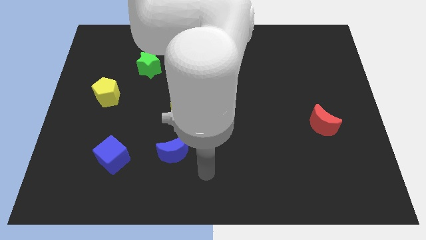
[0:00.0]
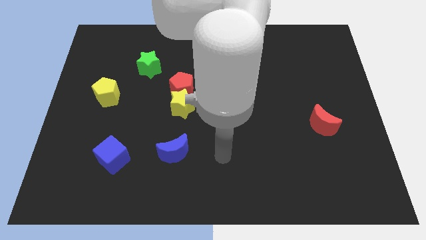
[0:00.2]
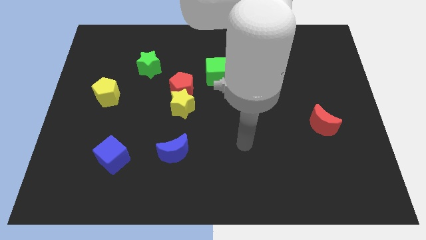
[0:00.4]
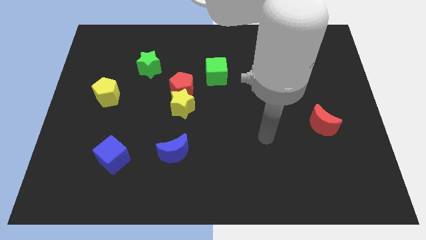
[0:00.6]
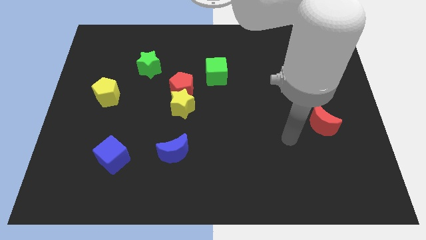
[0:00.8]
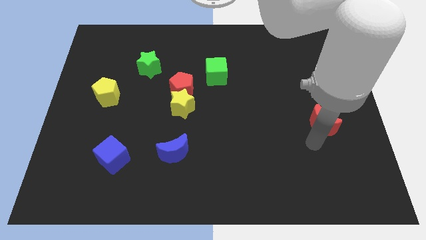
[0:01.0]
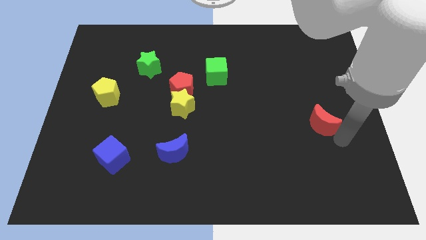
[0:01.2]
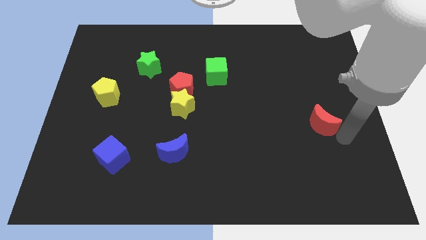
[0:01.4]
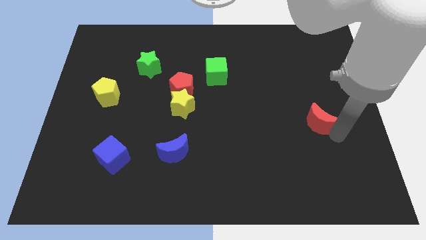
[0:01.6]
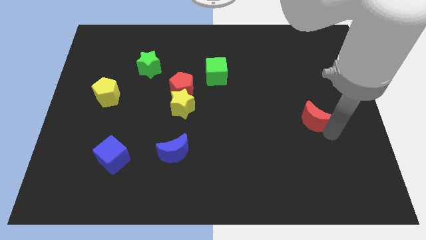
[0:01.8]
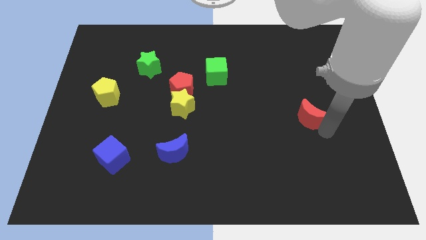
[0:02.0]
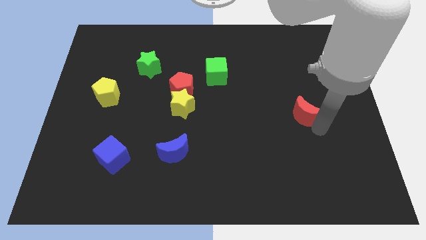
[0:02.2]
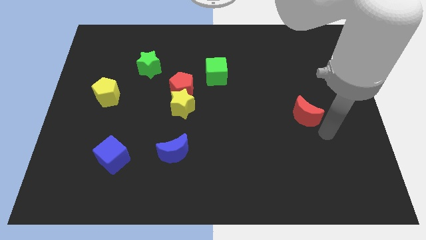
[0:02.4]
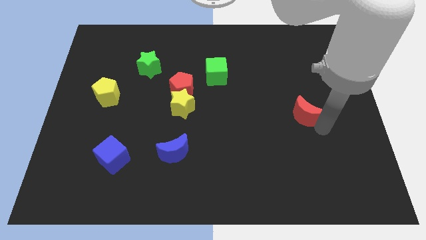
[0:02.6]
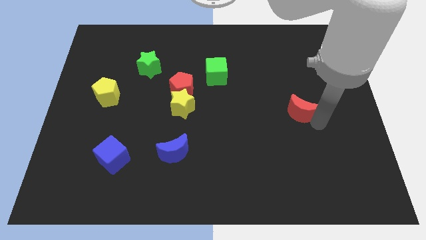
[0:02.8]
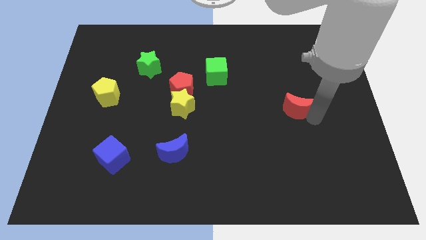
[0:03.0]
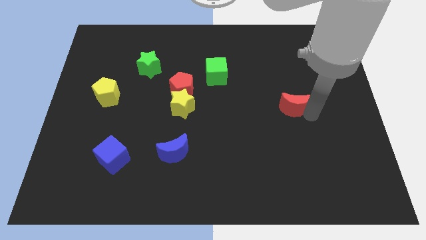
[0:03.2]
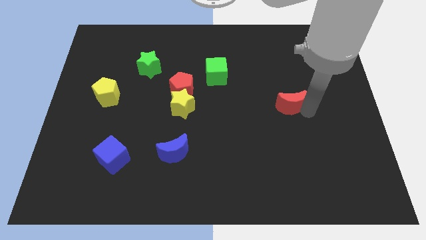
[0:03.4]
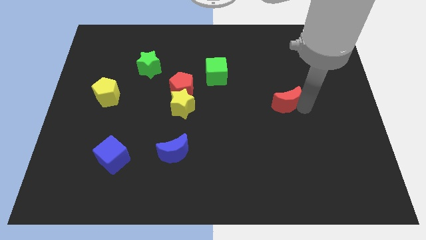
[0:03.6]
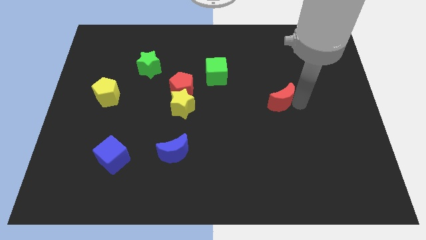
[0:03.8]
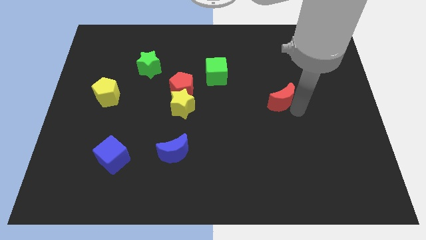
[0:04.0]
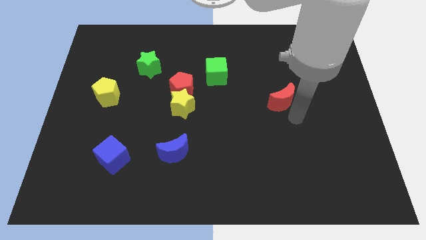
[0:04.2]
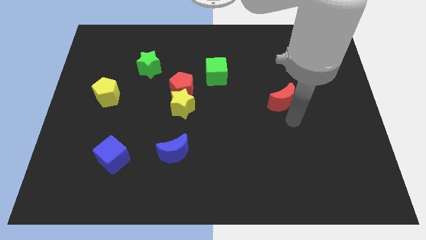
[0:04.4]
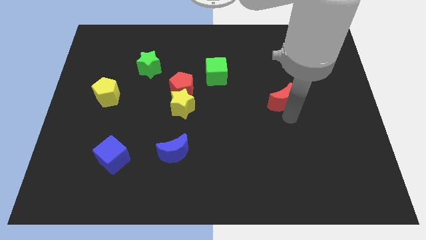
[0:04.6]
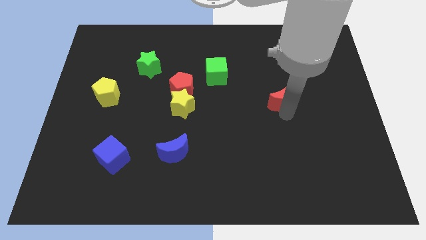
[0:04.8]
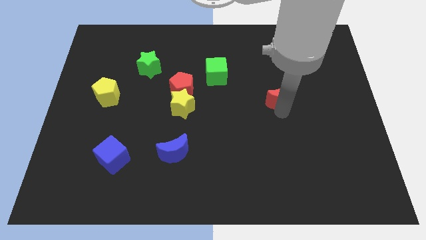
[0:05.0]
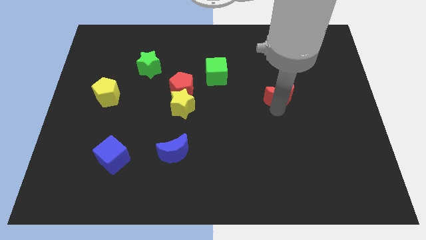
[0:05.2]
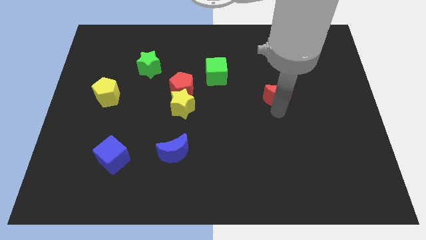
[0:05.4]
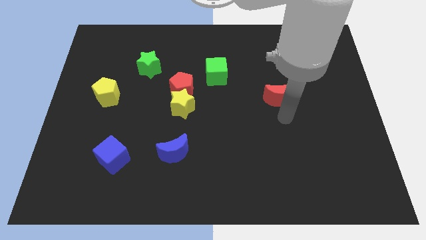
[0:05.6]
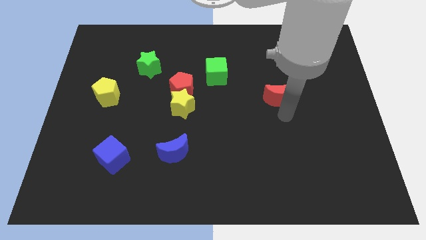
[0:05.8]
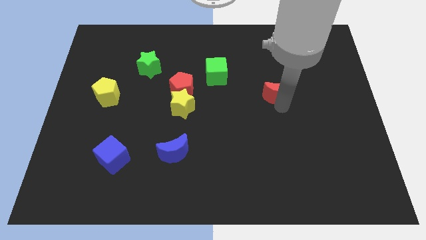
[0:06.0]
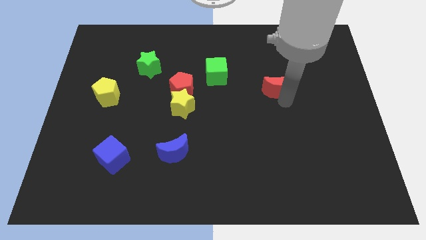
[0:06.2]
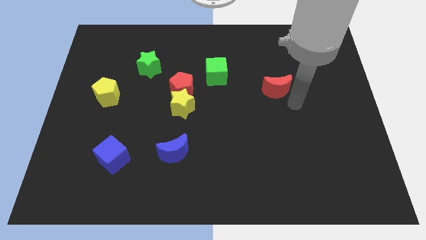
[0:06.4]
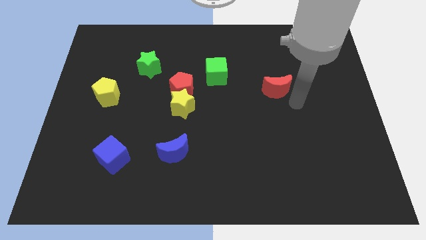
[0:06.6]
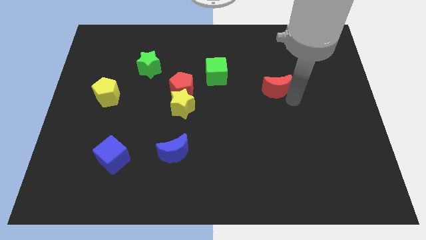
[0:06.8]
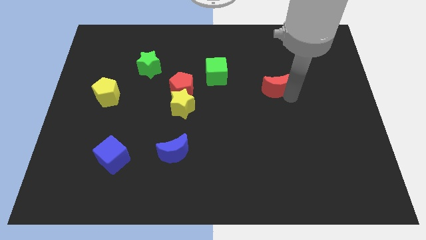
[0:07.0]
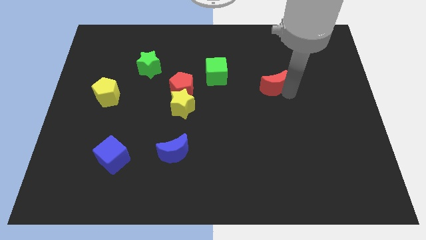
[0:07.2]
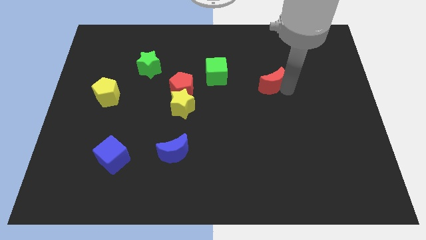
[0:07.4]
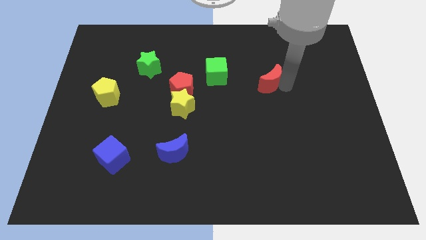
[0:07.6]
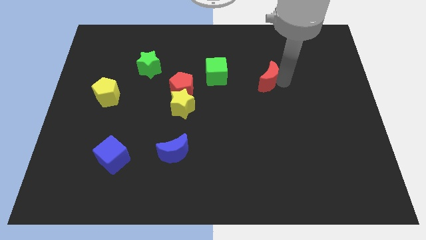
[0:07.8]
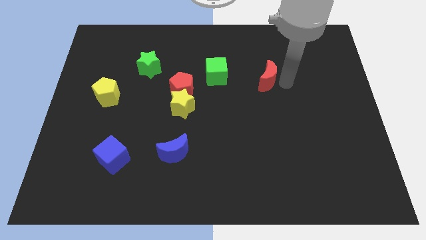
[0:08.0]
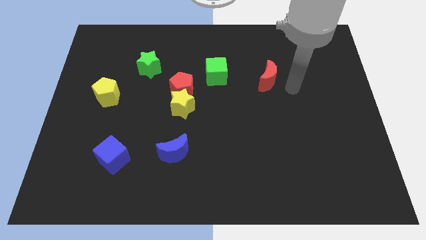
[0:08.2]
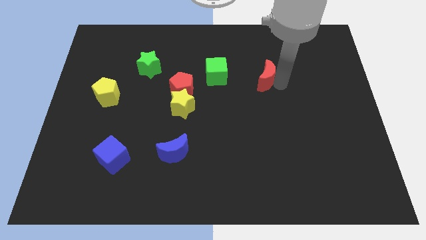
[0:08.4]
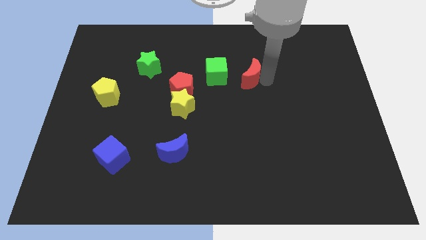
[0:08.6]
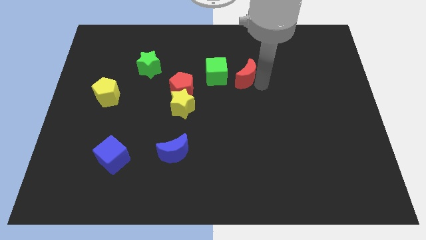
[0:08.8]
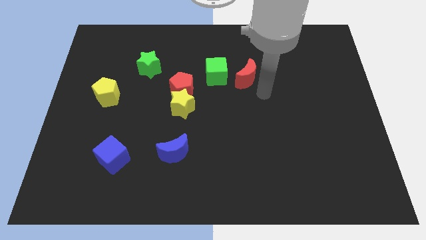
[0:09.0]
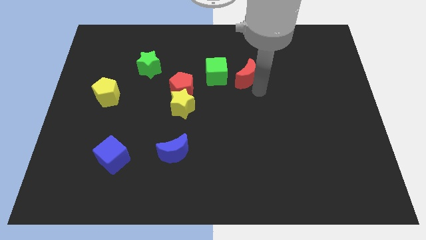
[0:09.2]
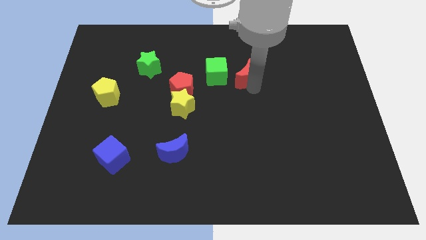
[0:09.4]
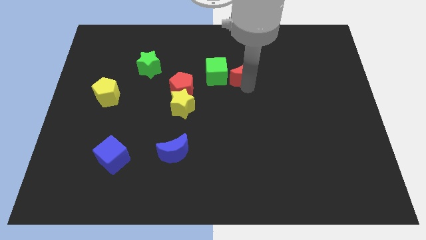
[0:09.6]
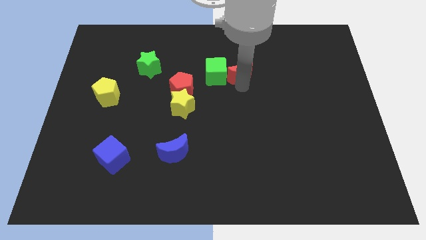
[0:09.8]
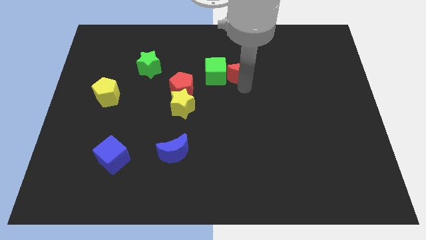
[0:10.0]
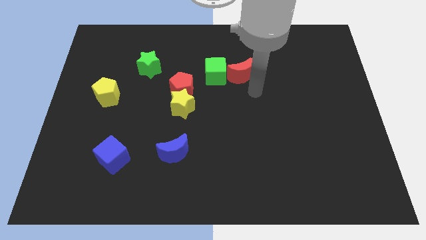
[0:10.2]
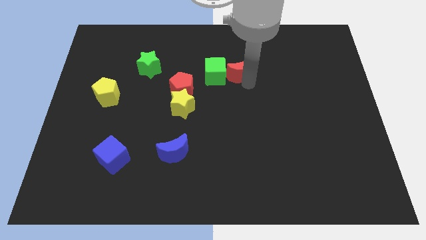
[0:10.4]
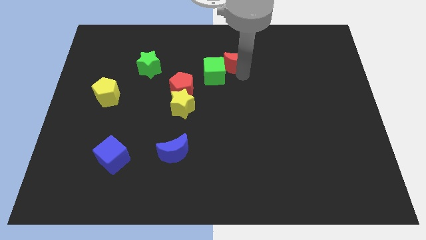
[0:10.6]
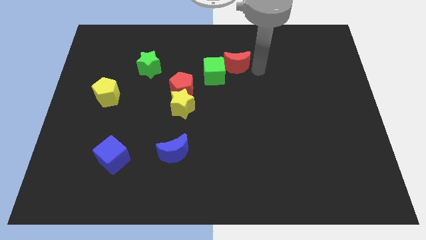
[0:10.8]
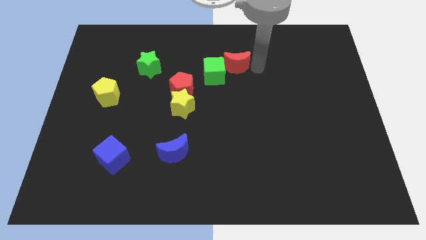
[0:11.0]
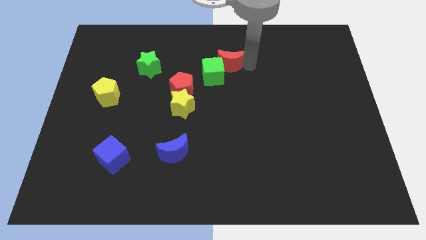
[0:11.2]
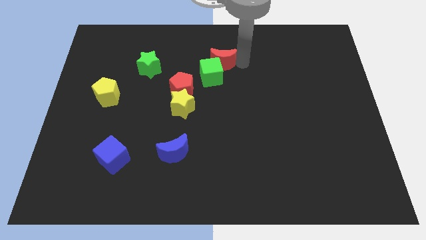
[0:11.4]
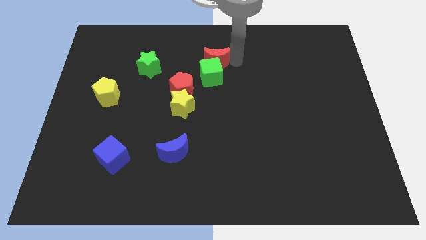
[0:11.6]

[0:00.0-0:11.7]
put the red moon to the top left side of the green cube

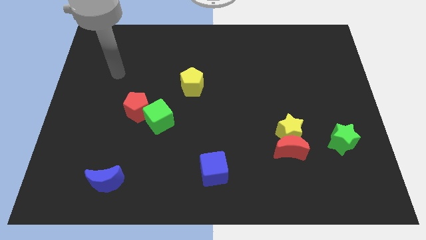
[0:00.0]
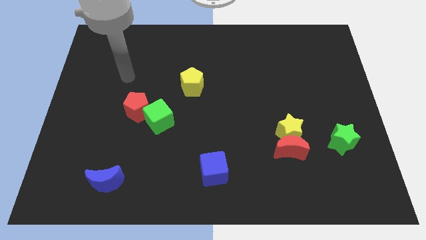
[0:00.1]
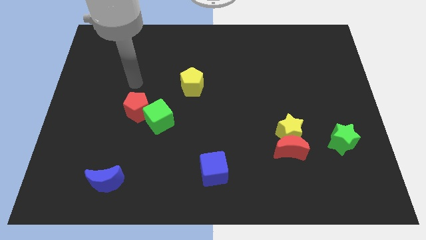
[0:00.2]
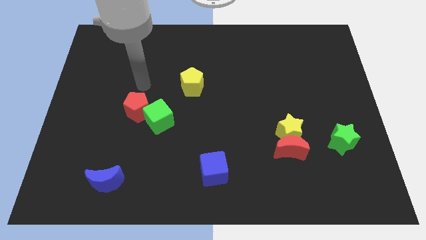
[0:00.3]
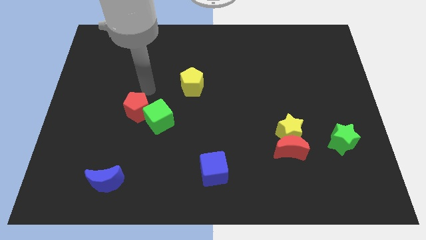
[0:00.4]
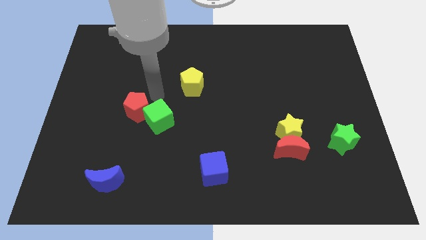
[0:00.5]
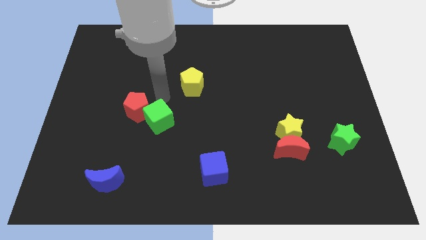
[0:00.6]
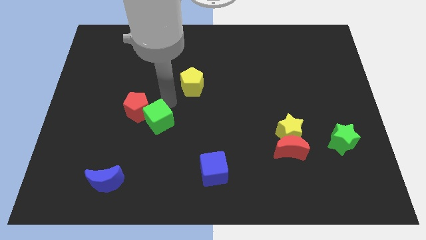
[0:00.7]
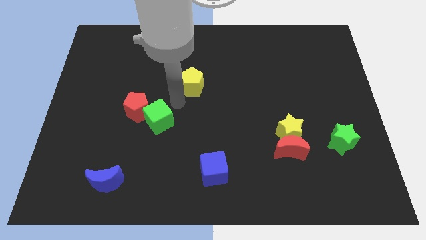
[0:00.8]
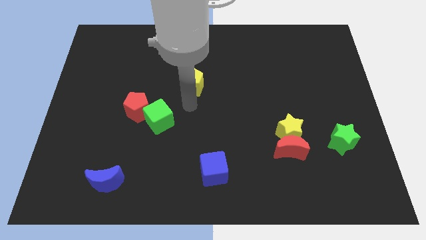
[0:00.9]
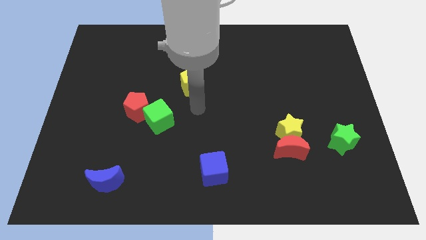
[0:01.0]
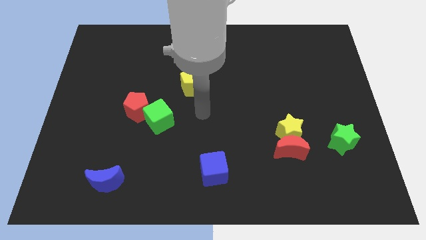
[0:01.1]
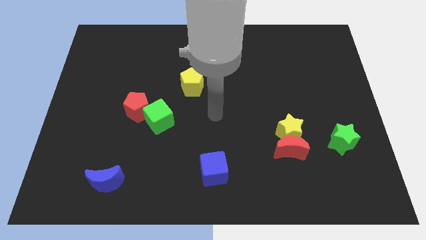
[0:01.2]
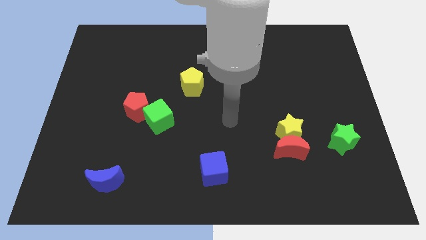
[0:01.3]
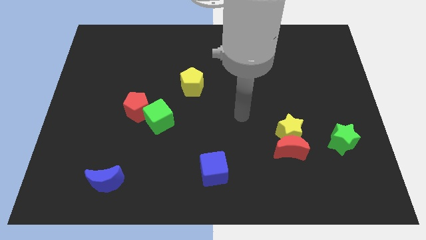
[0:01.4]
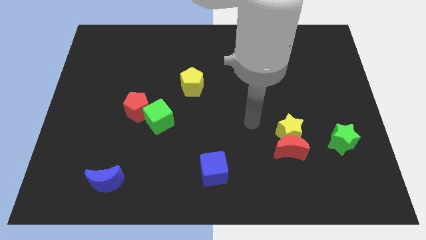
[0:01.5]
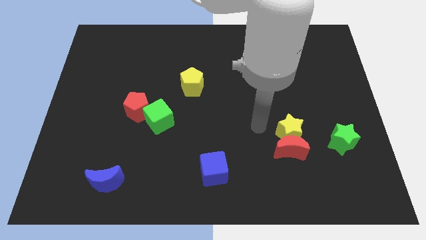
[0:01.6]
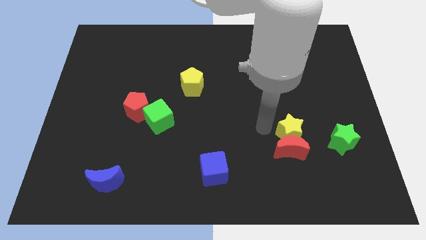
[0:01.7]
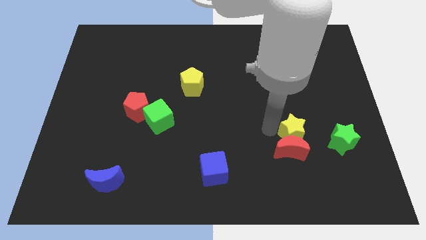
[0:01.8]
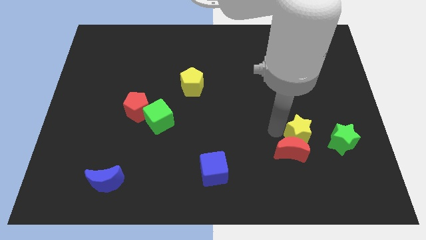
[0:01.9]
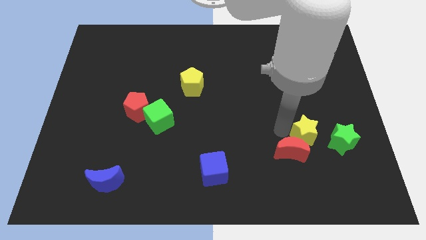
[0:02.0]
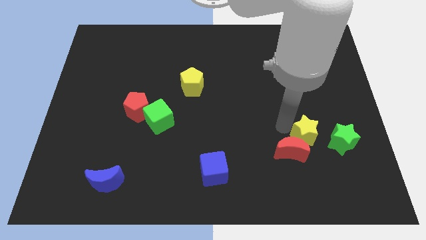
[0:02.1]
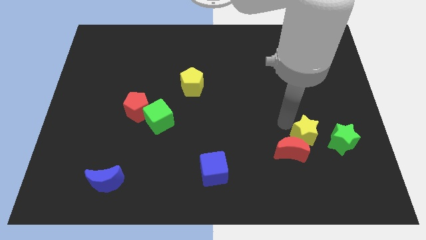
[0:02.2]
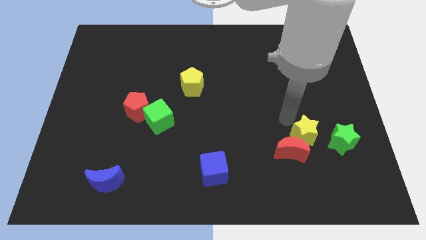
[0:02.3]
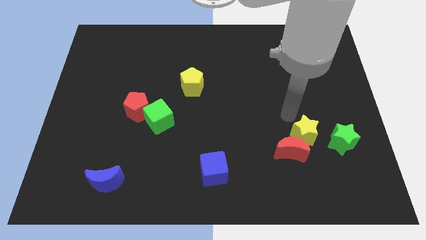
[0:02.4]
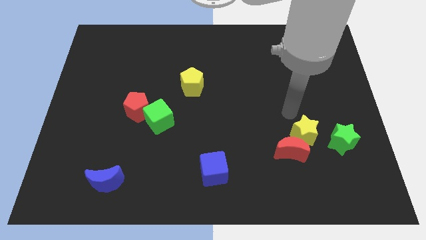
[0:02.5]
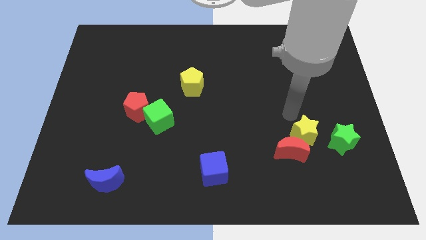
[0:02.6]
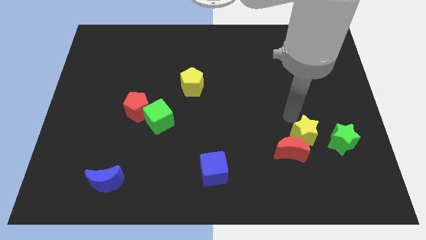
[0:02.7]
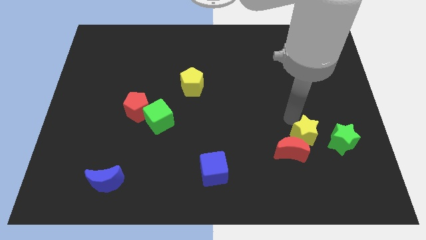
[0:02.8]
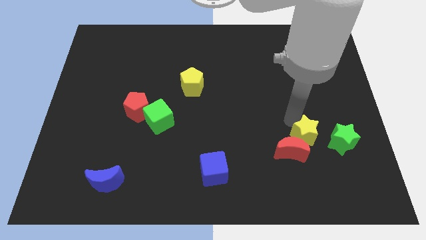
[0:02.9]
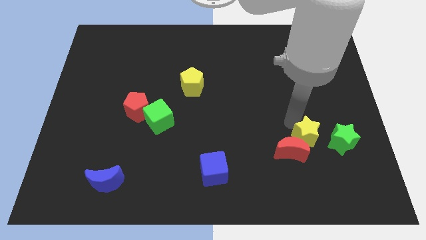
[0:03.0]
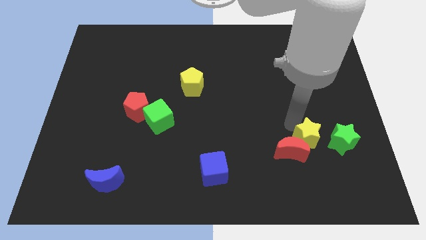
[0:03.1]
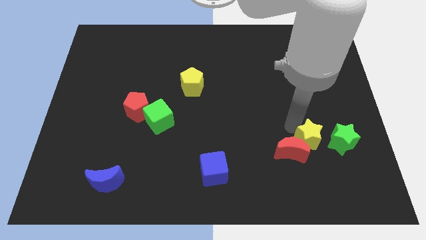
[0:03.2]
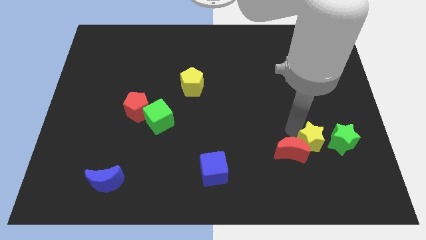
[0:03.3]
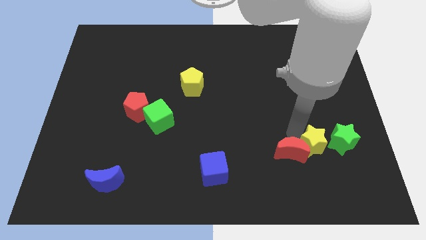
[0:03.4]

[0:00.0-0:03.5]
push the yellow star diagonally down and to the right of the red moon
